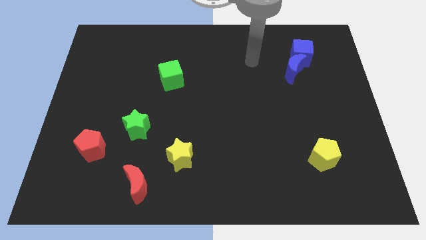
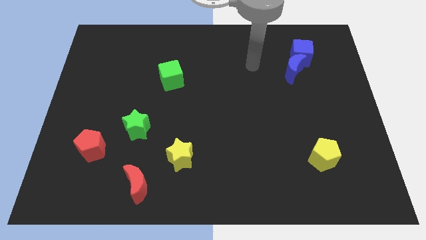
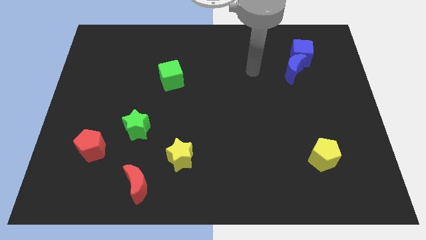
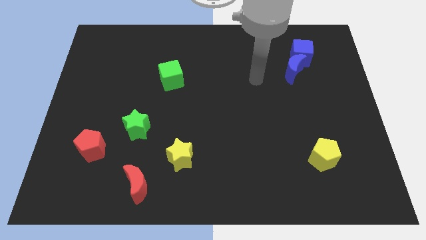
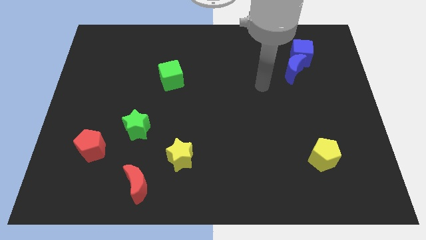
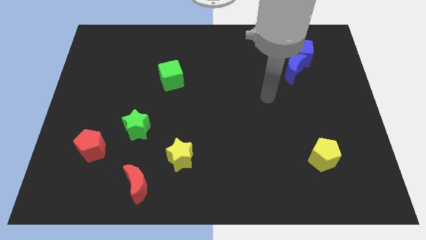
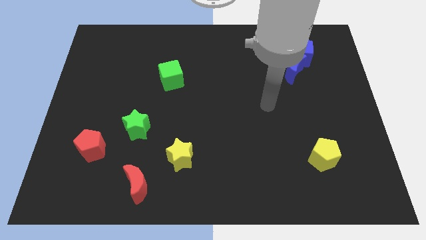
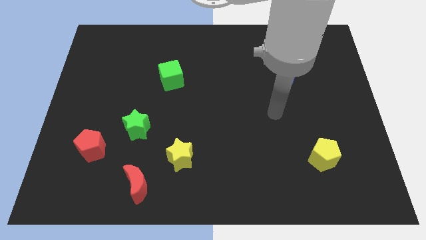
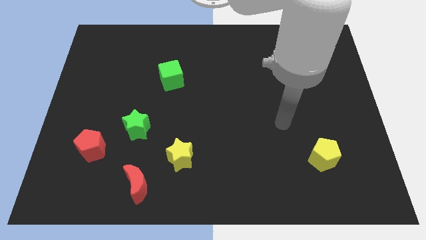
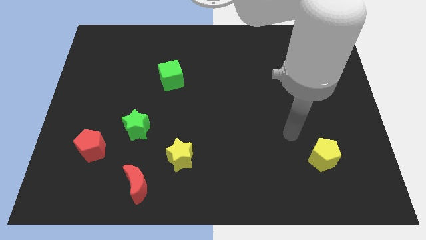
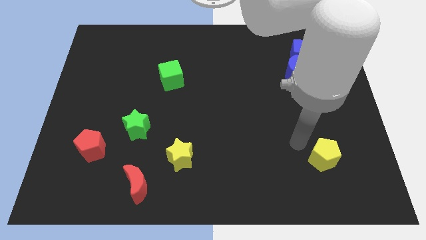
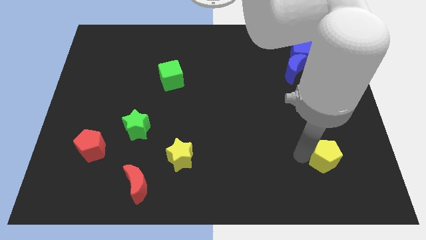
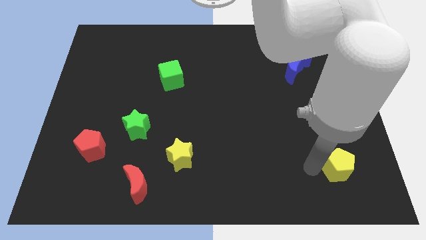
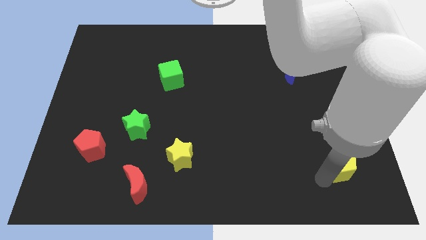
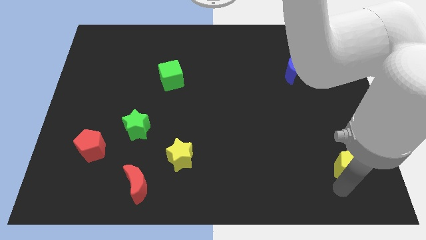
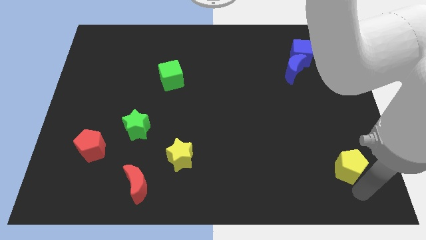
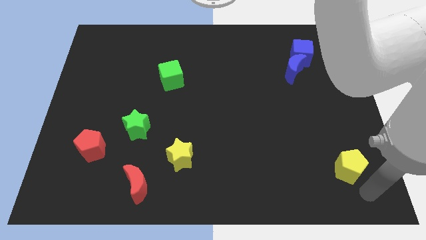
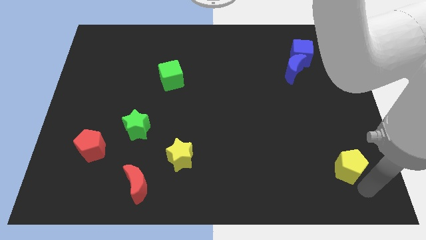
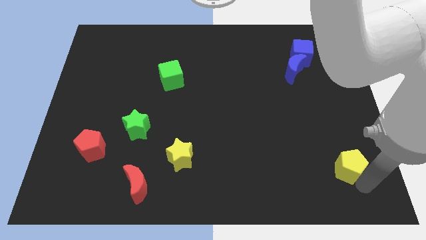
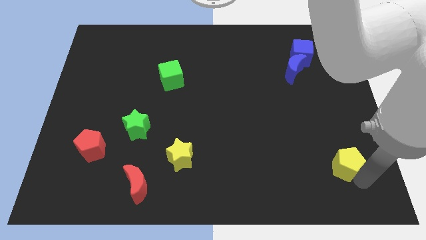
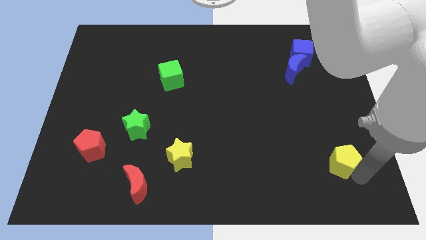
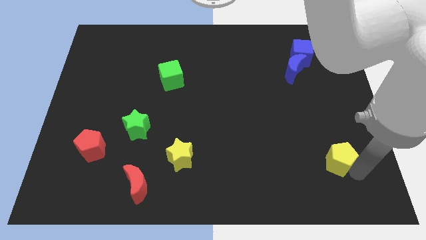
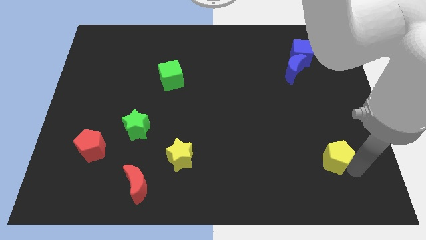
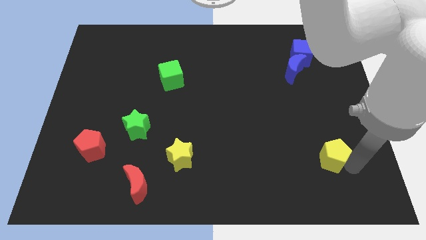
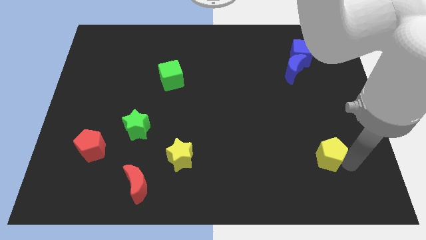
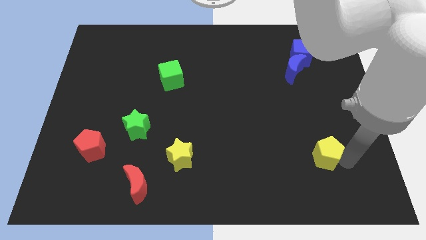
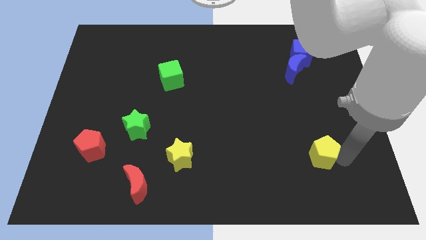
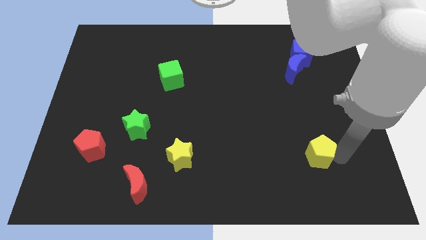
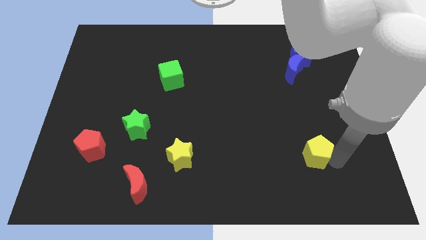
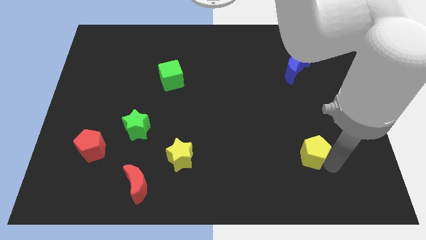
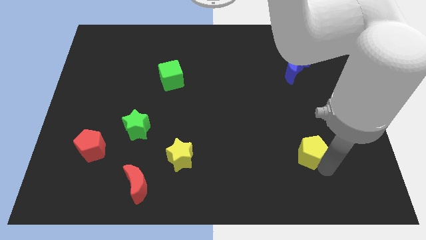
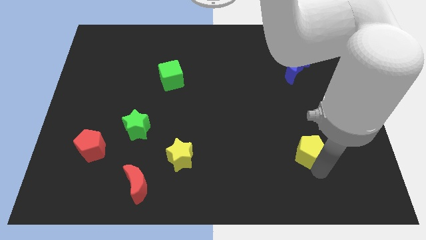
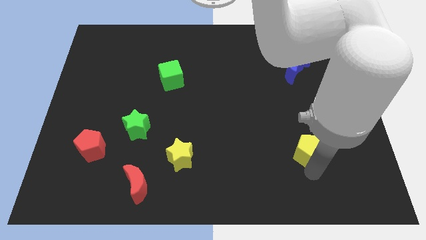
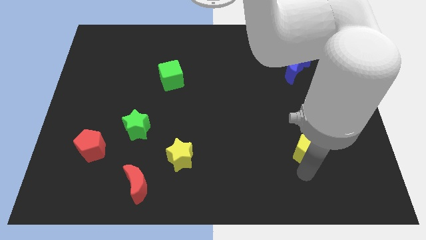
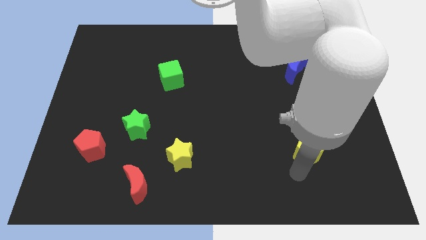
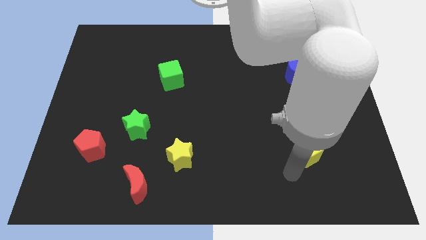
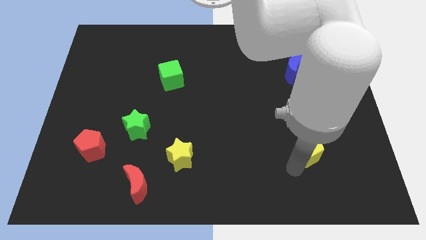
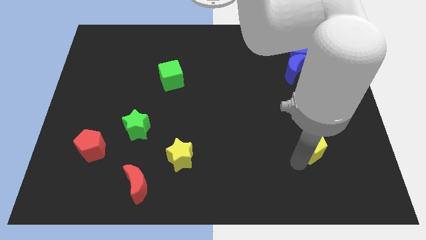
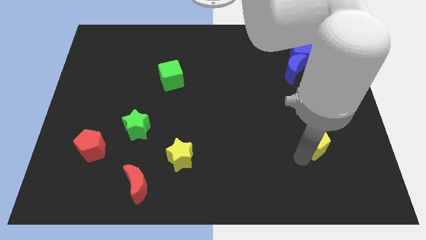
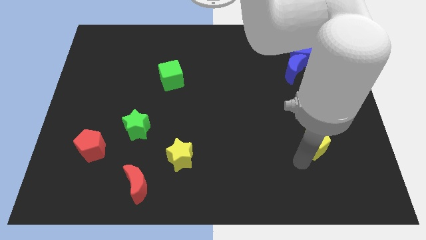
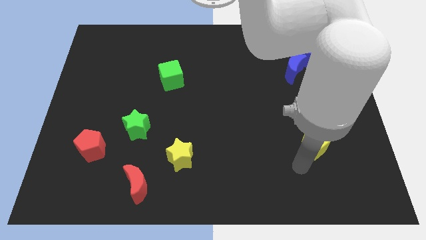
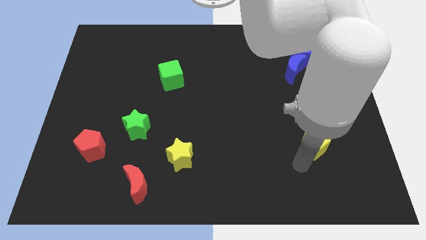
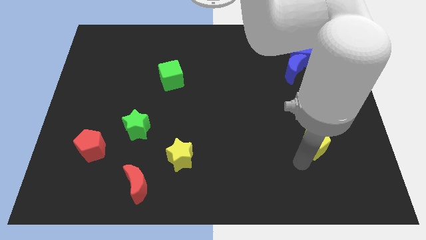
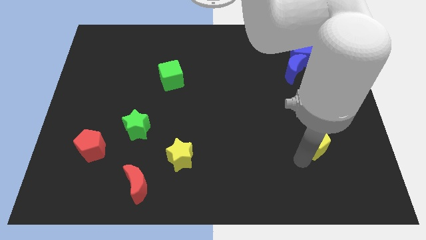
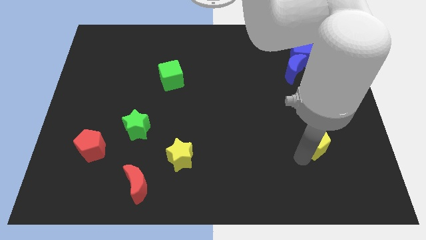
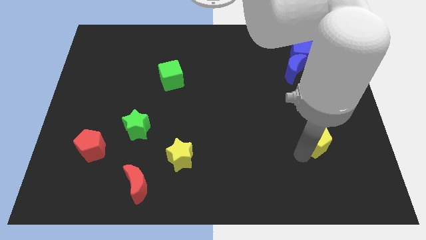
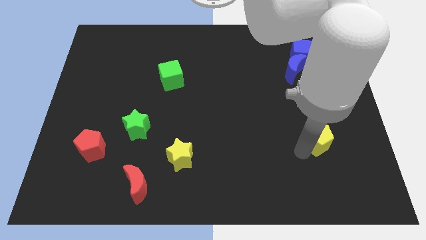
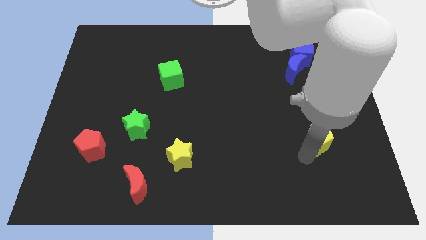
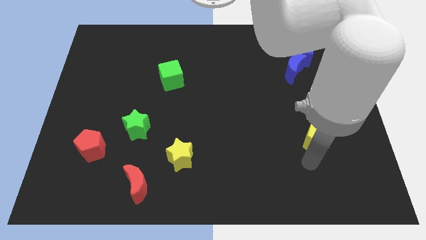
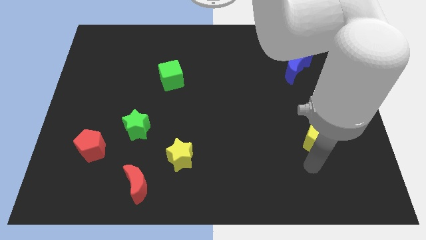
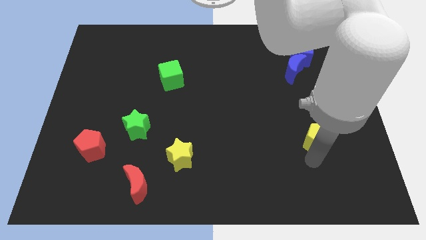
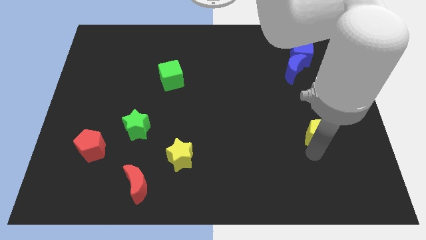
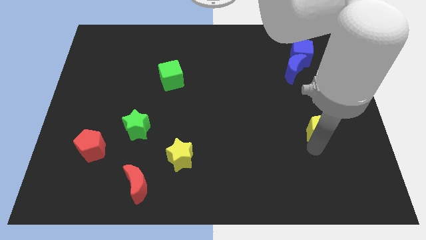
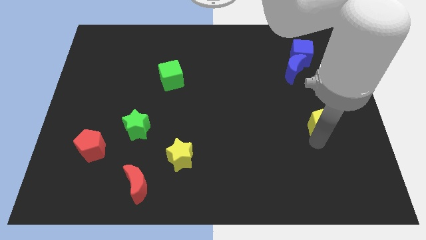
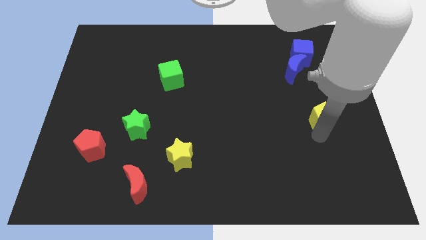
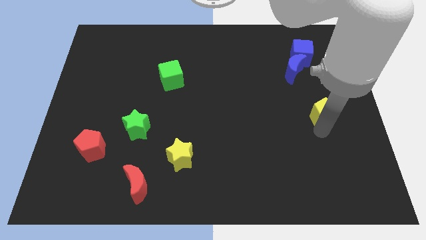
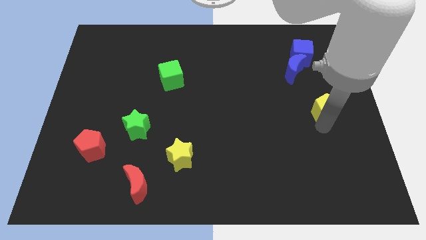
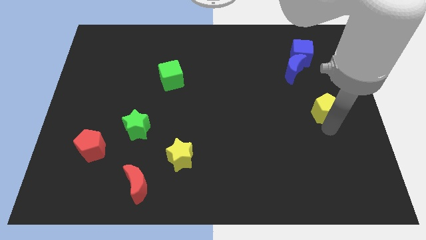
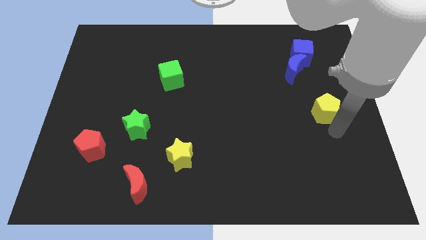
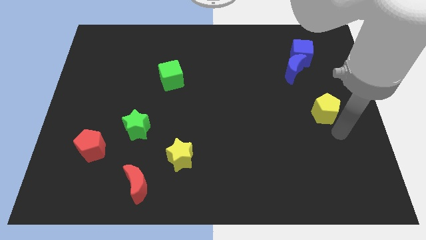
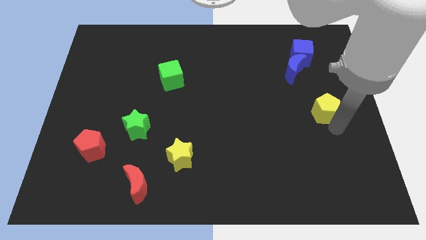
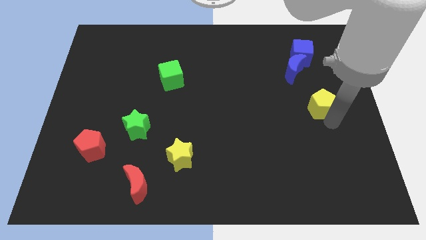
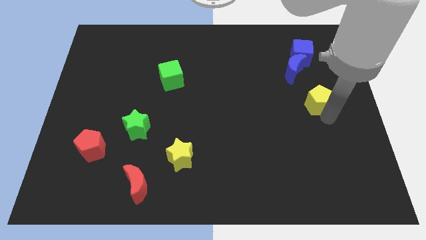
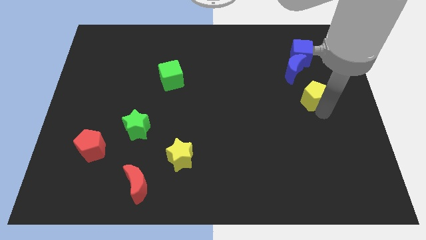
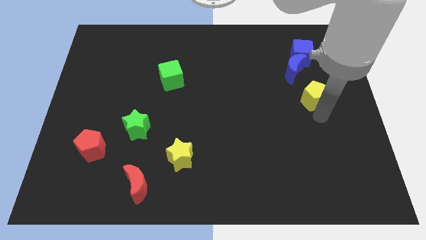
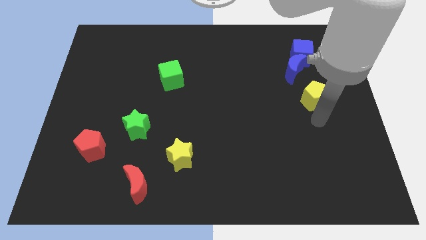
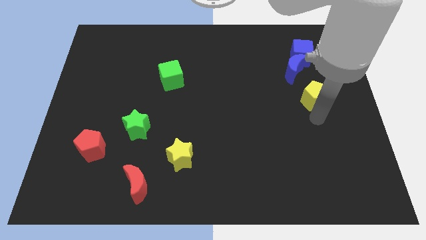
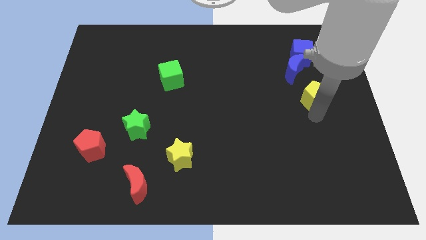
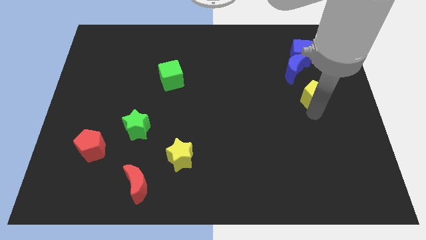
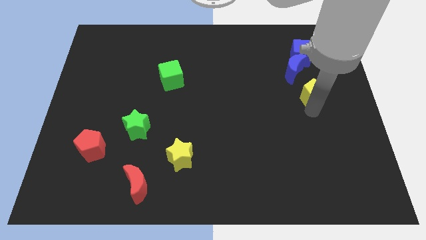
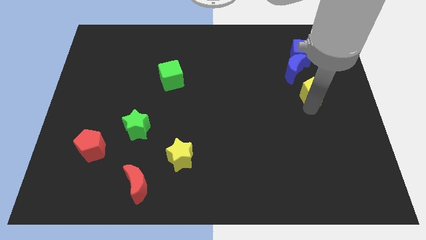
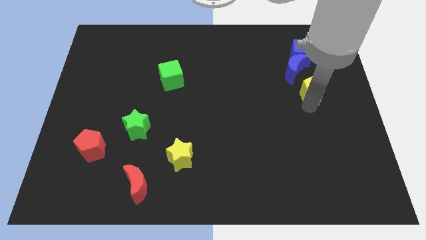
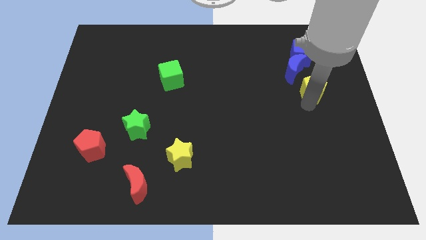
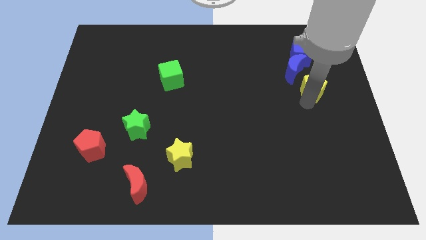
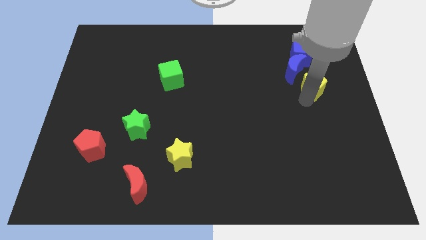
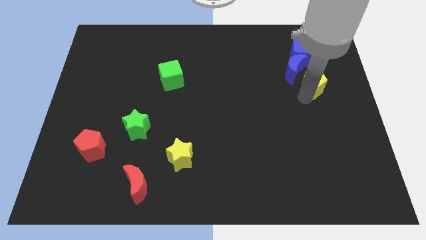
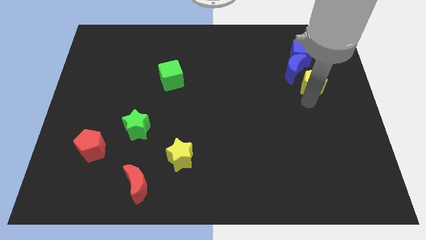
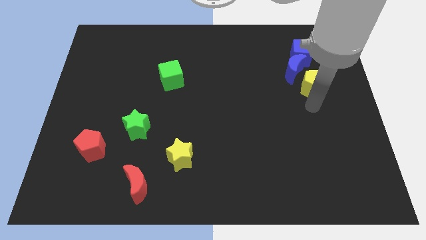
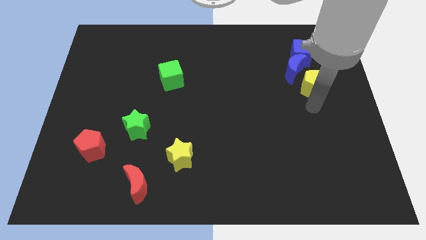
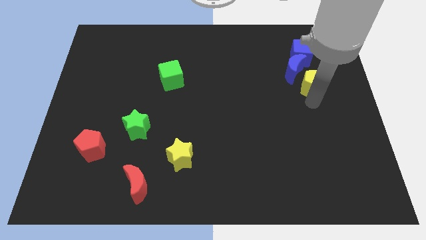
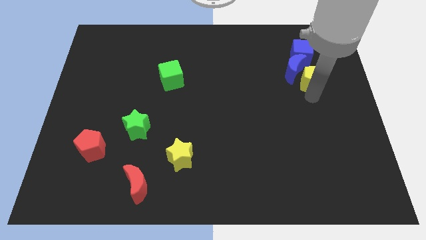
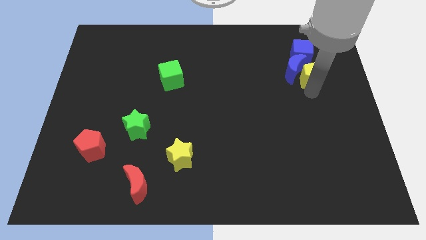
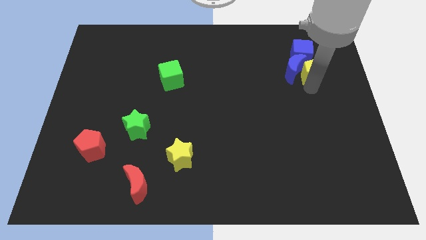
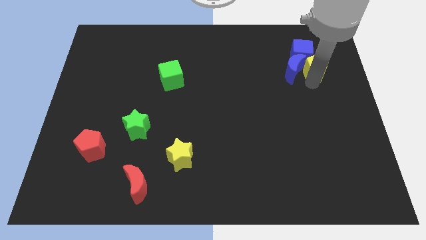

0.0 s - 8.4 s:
push the yellow pentagon close to the blue cube
